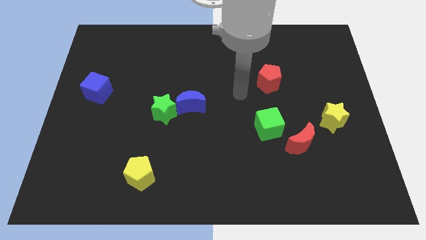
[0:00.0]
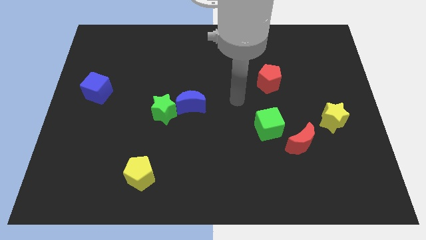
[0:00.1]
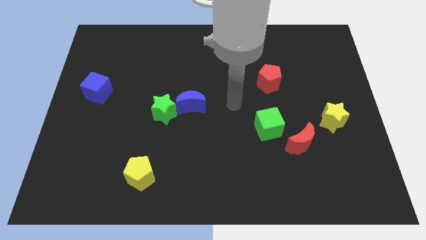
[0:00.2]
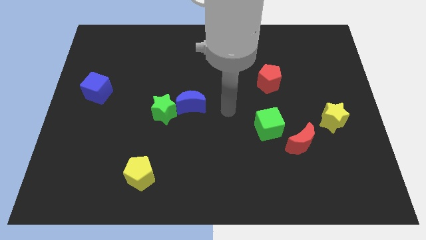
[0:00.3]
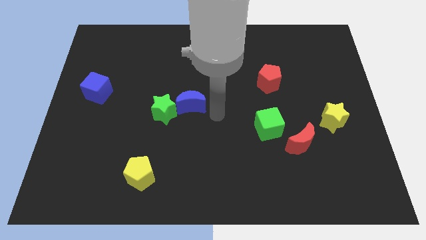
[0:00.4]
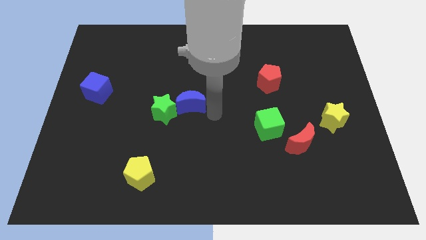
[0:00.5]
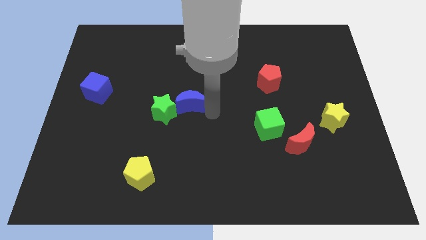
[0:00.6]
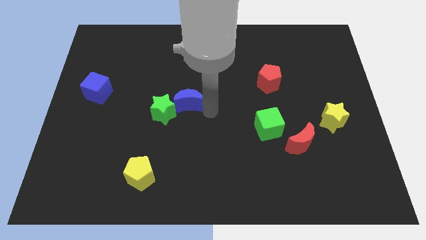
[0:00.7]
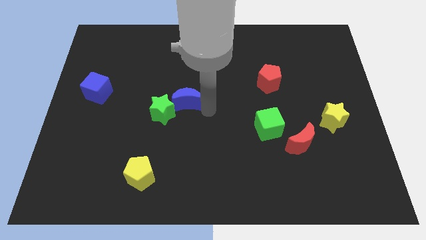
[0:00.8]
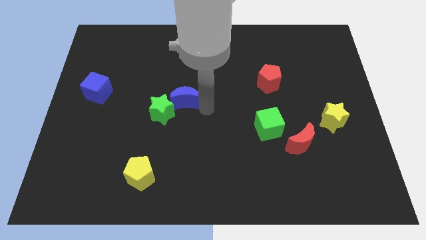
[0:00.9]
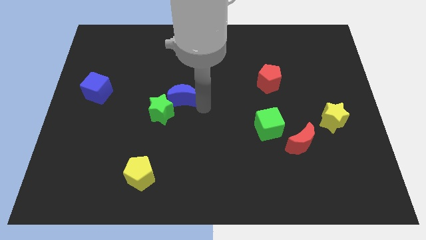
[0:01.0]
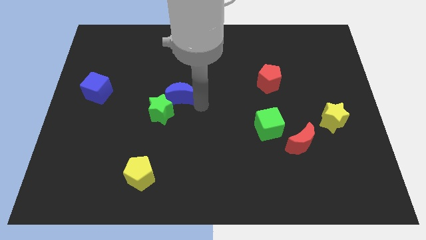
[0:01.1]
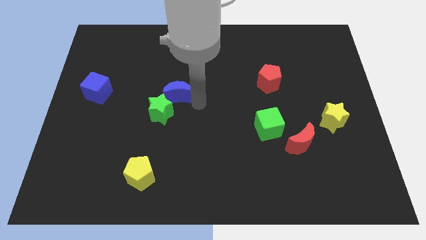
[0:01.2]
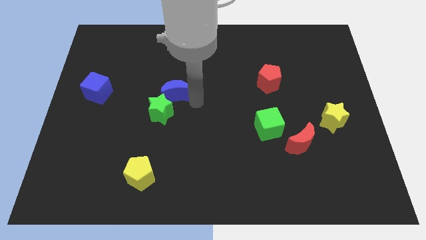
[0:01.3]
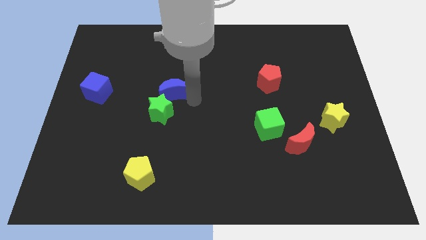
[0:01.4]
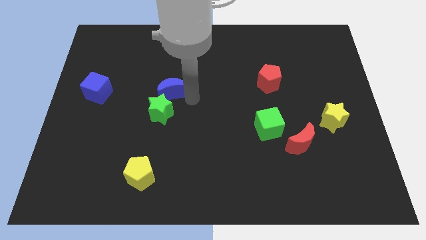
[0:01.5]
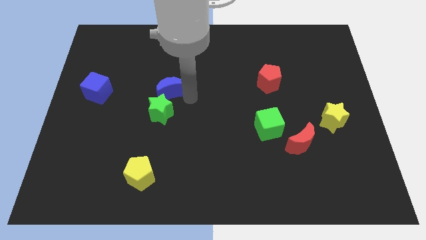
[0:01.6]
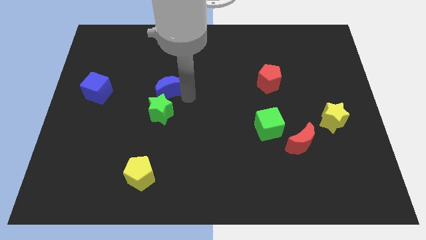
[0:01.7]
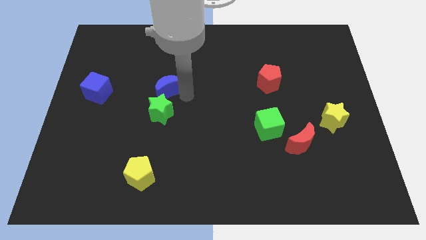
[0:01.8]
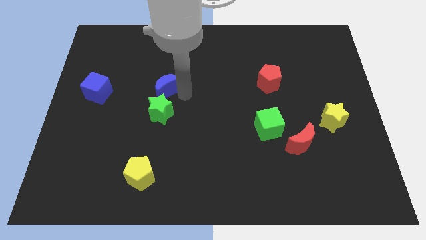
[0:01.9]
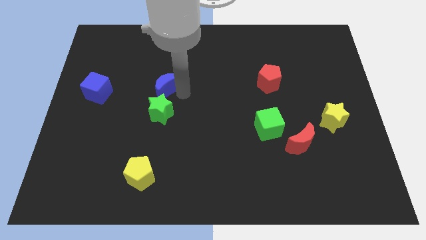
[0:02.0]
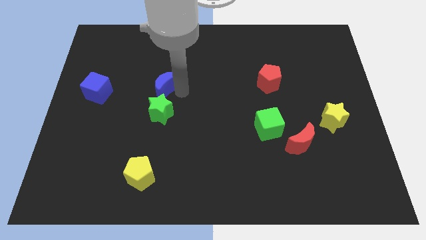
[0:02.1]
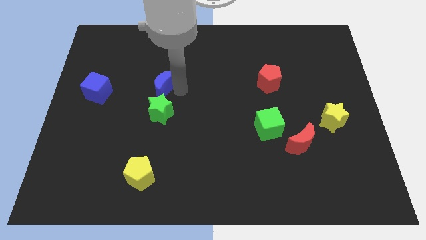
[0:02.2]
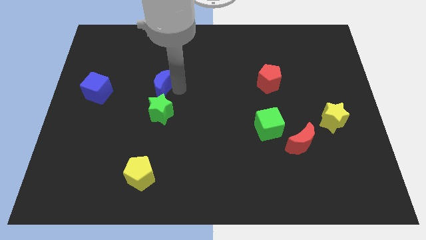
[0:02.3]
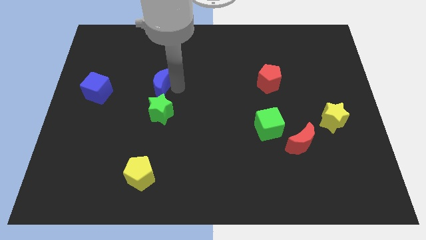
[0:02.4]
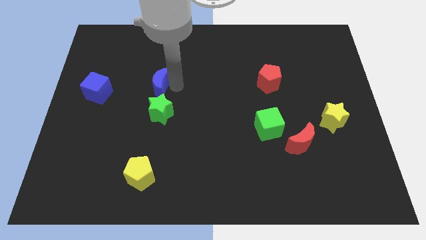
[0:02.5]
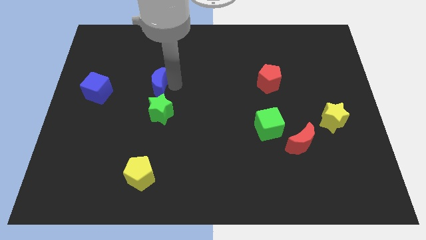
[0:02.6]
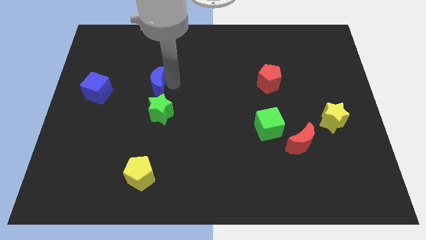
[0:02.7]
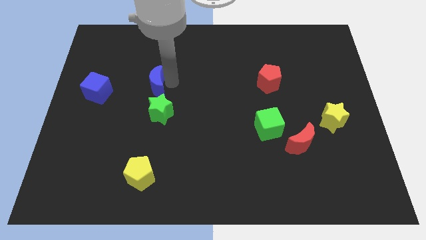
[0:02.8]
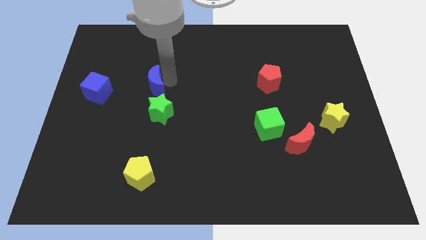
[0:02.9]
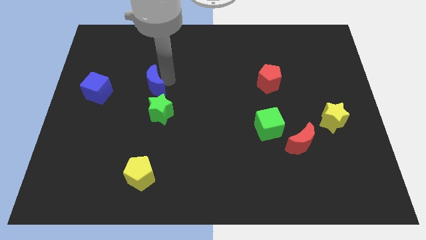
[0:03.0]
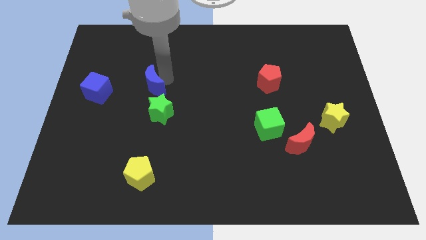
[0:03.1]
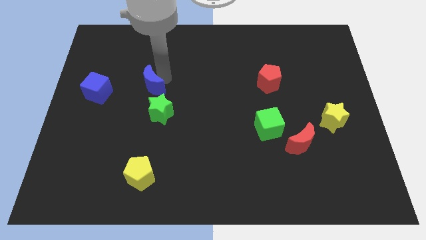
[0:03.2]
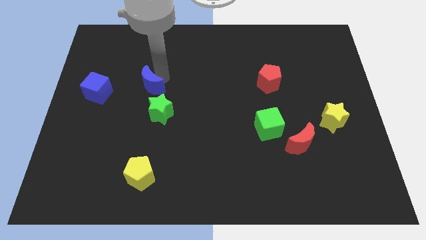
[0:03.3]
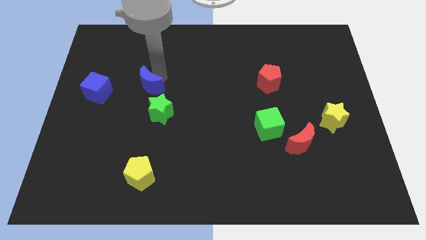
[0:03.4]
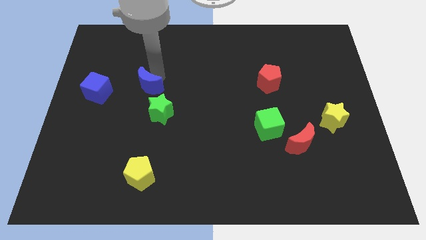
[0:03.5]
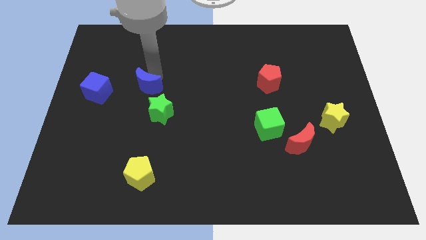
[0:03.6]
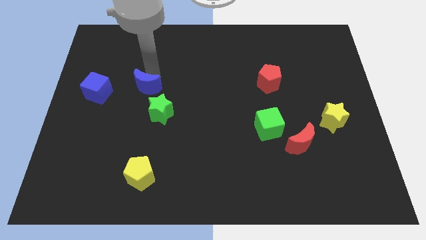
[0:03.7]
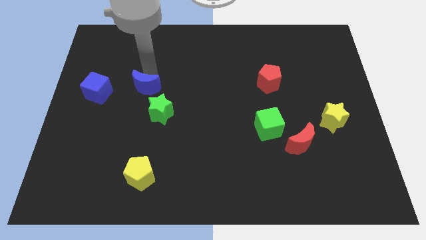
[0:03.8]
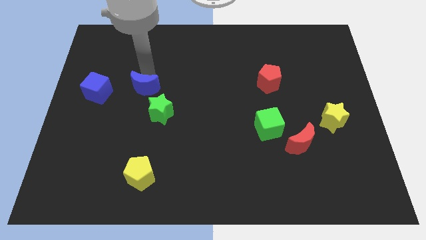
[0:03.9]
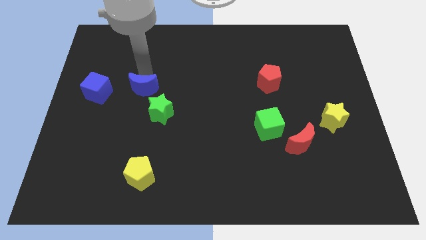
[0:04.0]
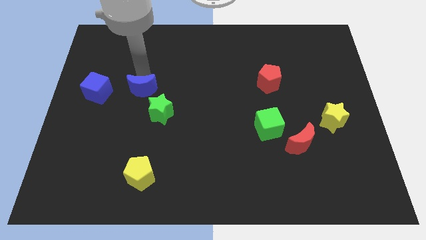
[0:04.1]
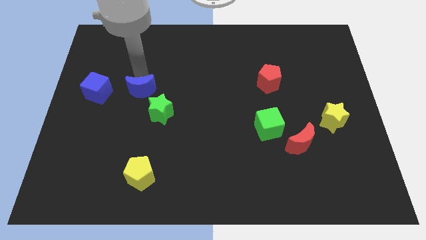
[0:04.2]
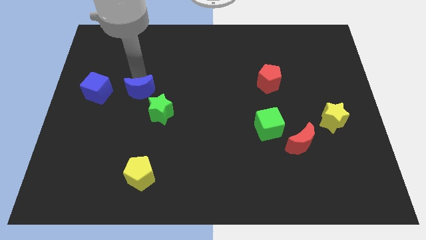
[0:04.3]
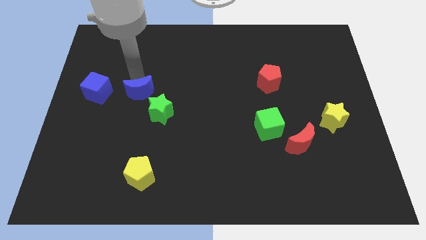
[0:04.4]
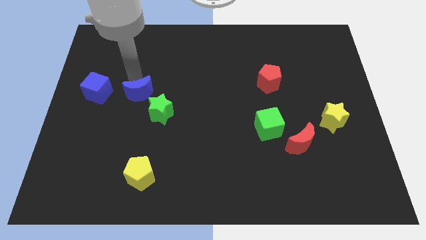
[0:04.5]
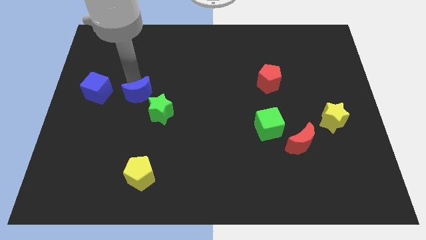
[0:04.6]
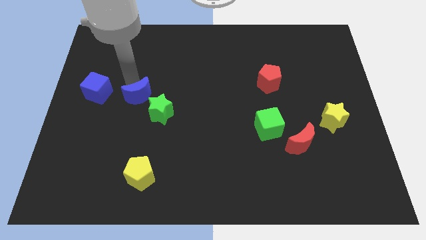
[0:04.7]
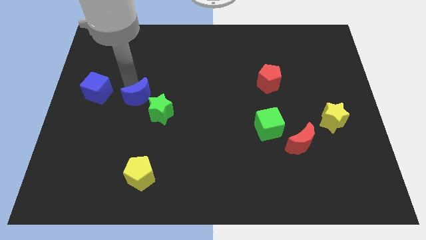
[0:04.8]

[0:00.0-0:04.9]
slide the blue moon to the left side of the green star

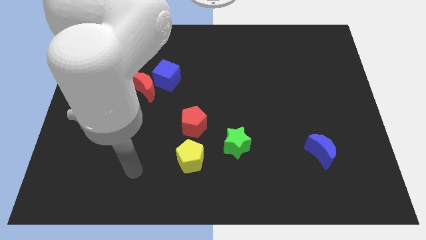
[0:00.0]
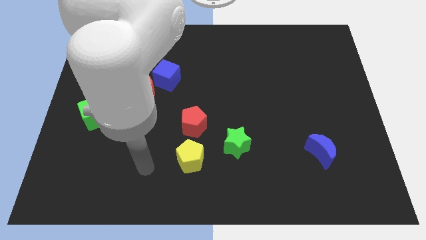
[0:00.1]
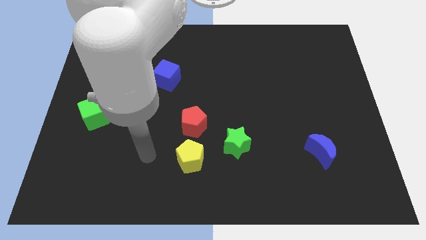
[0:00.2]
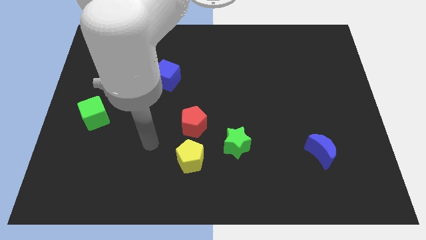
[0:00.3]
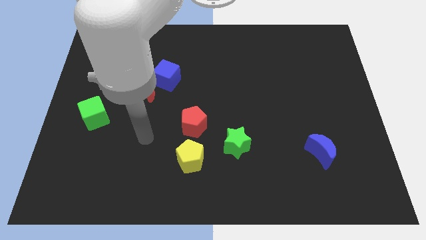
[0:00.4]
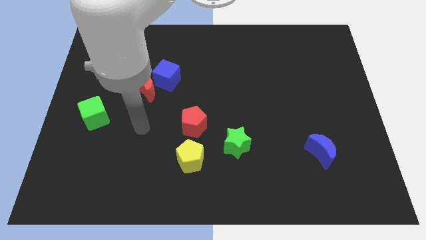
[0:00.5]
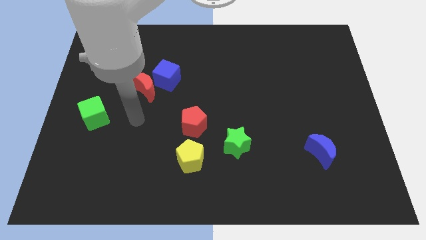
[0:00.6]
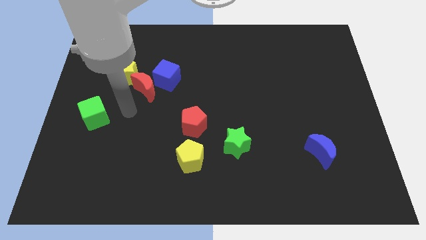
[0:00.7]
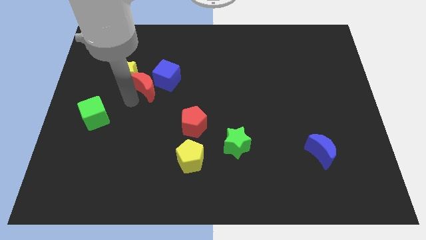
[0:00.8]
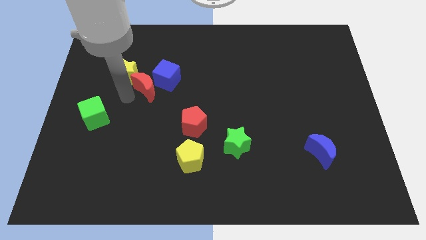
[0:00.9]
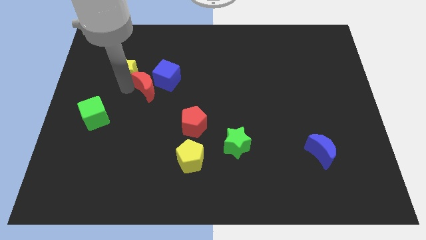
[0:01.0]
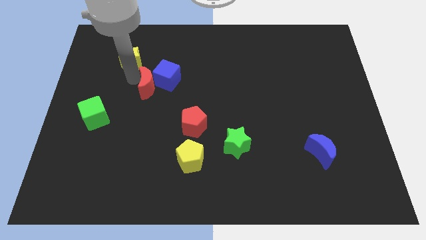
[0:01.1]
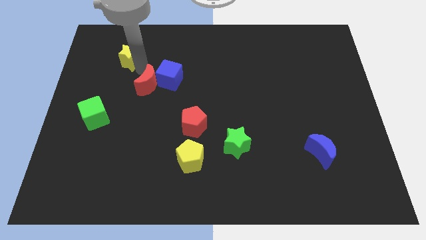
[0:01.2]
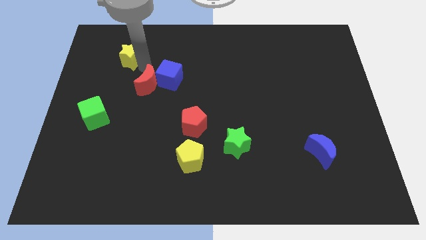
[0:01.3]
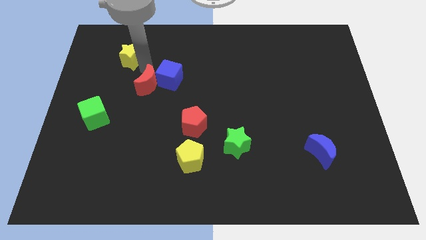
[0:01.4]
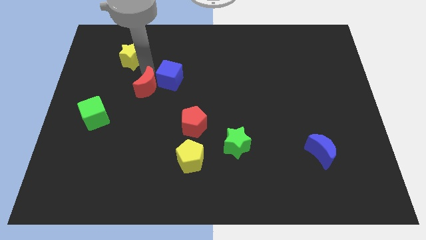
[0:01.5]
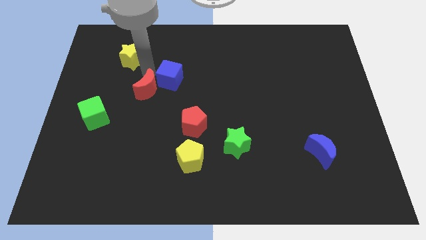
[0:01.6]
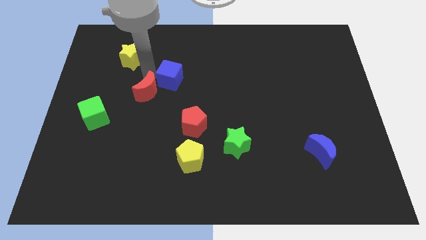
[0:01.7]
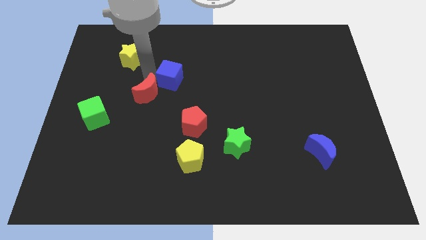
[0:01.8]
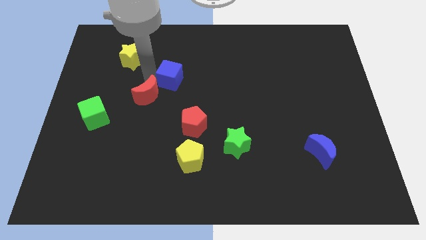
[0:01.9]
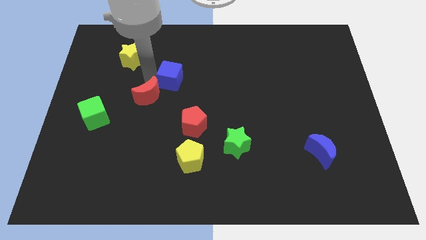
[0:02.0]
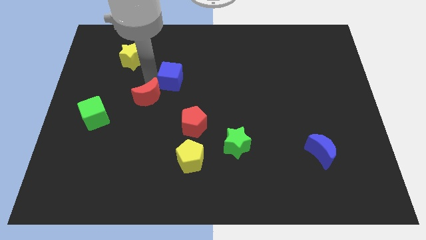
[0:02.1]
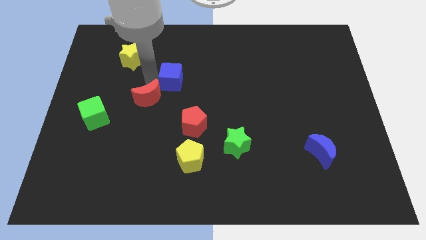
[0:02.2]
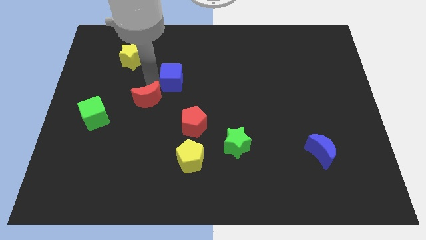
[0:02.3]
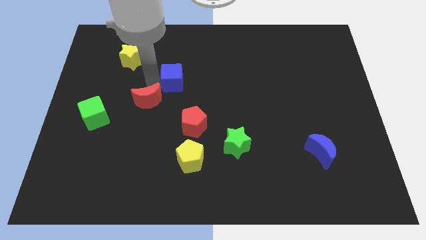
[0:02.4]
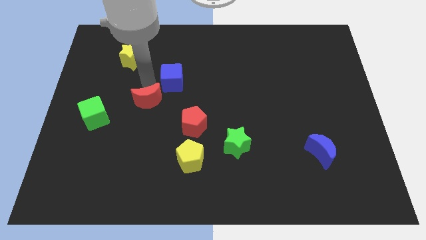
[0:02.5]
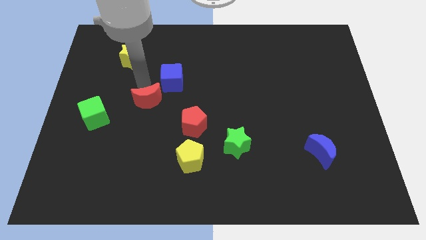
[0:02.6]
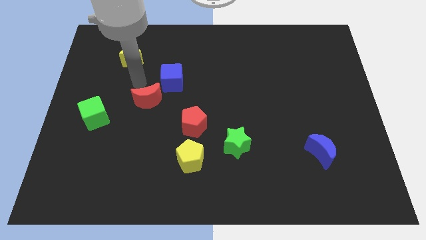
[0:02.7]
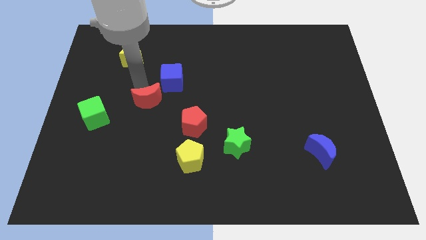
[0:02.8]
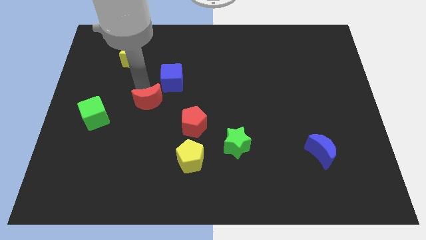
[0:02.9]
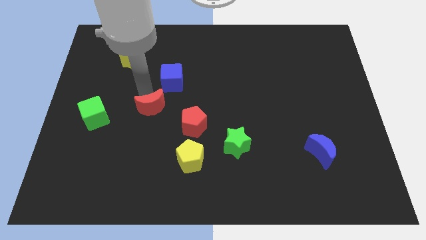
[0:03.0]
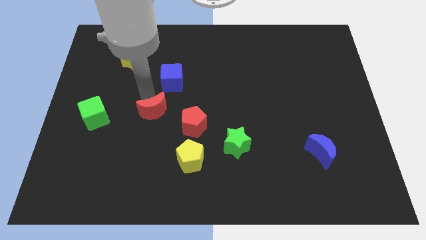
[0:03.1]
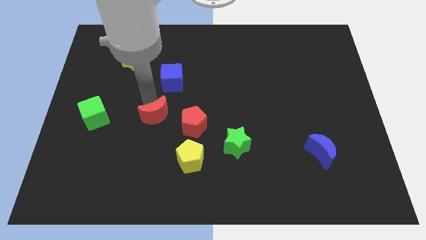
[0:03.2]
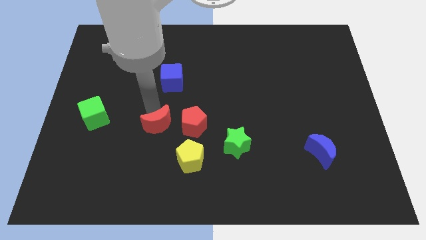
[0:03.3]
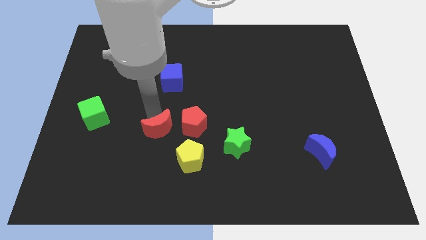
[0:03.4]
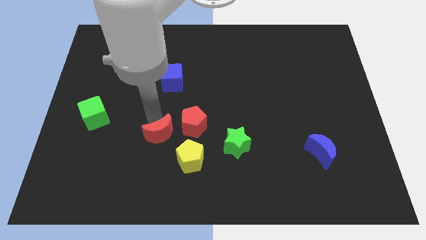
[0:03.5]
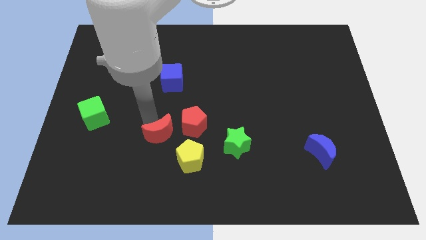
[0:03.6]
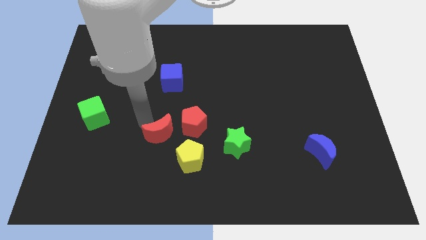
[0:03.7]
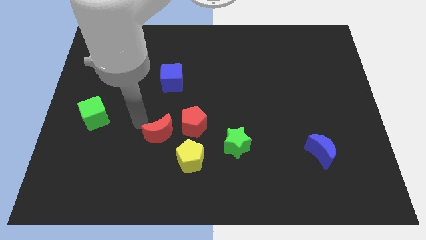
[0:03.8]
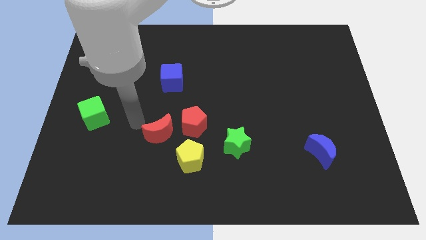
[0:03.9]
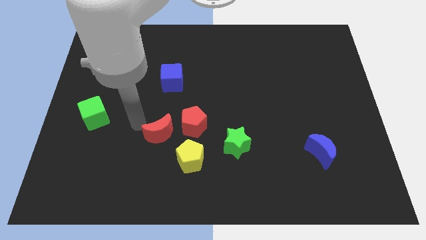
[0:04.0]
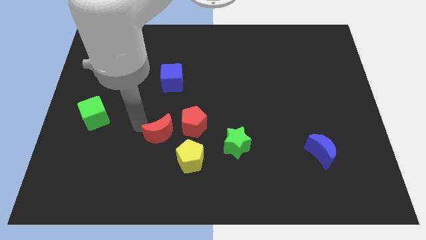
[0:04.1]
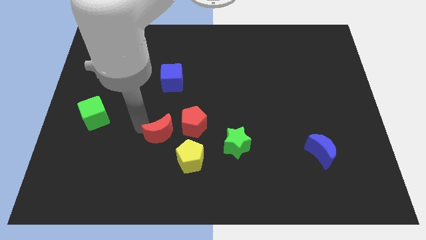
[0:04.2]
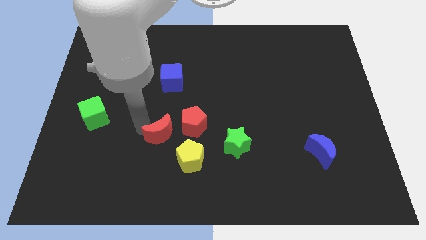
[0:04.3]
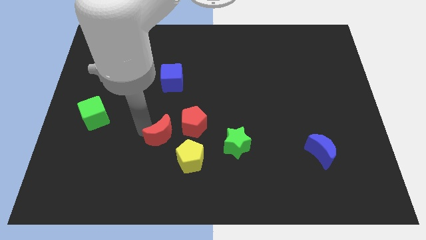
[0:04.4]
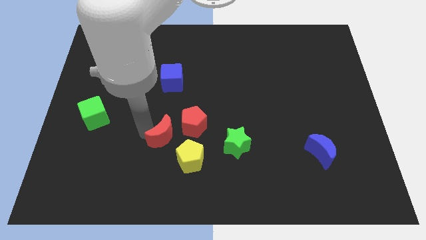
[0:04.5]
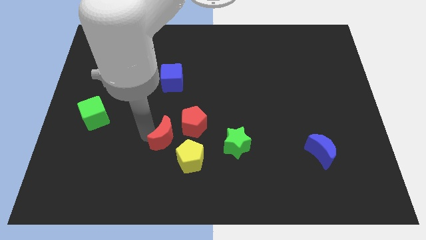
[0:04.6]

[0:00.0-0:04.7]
move the red moon just left of the green star
